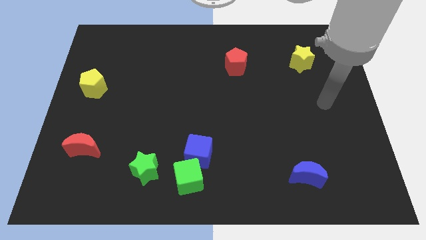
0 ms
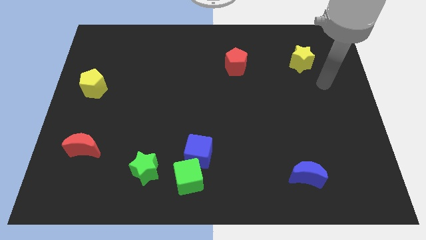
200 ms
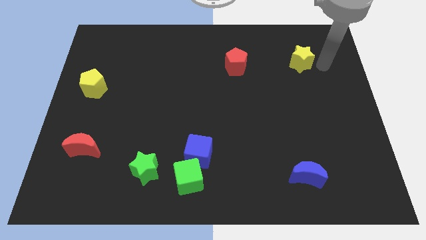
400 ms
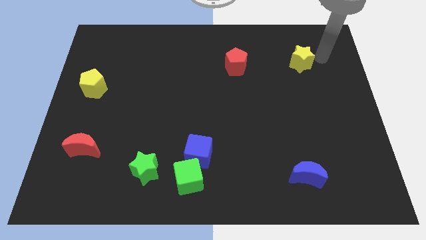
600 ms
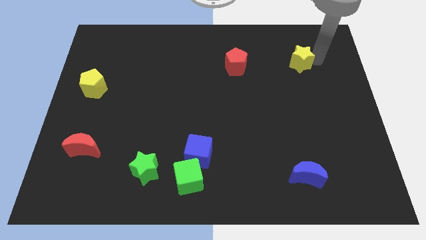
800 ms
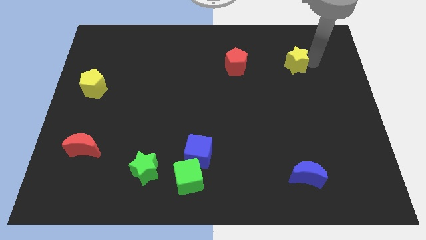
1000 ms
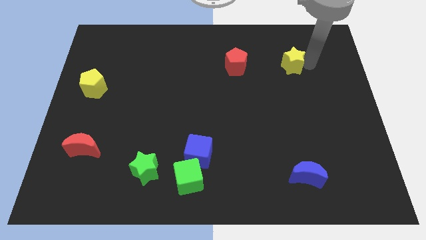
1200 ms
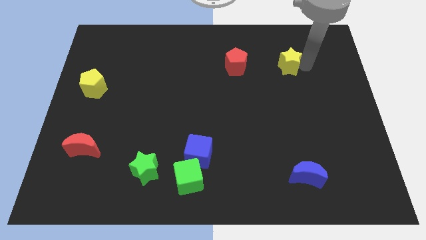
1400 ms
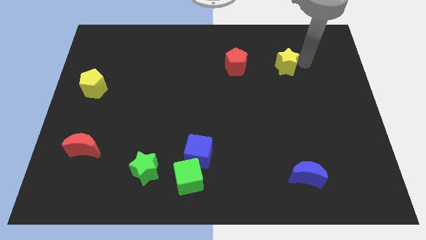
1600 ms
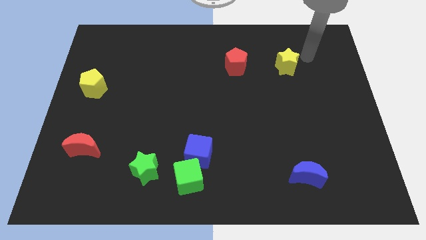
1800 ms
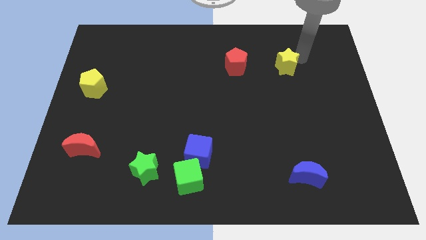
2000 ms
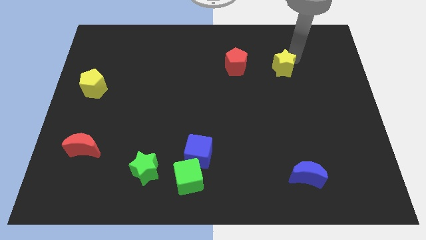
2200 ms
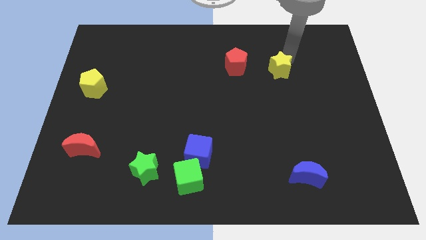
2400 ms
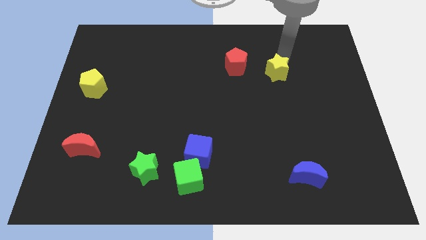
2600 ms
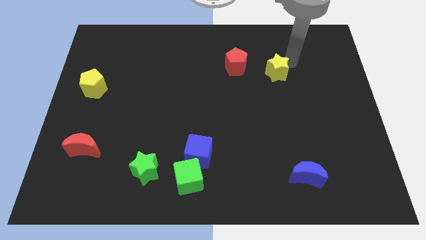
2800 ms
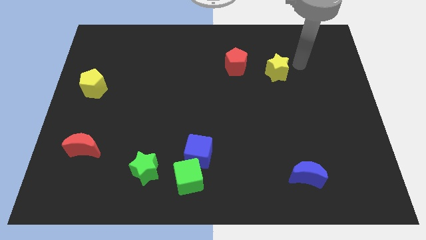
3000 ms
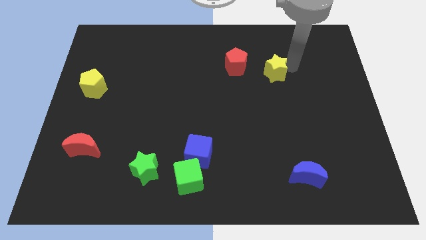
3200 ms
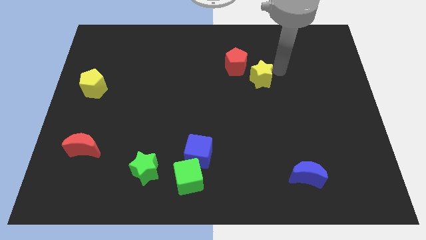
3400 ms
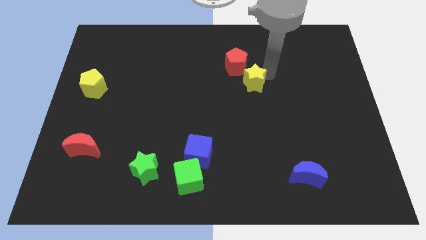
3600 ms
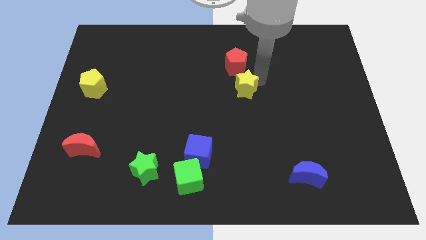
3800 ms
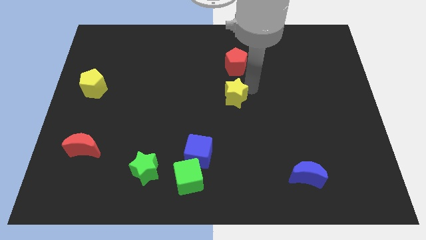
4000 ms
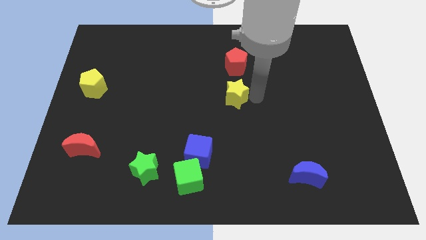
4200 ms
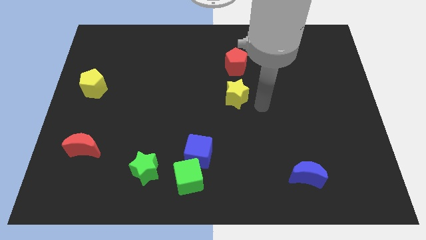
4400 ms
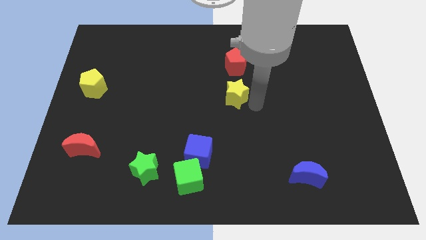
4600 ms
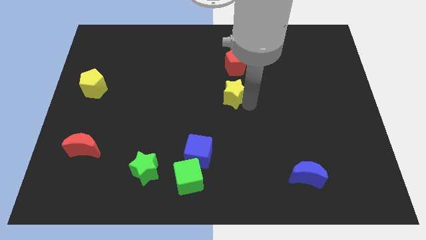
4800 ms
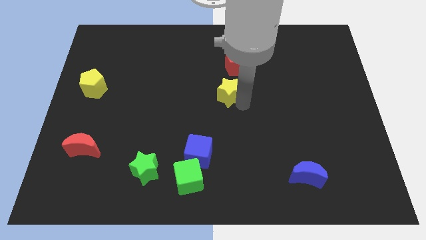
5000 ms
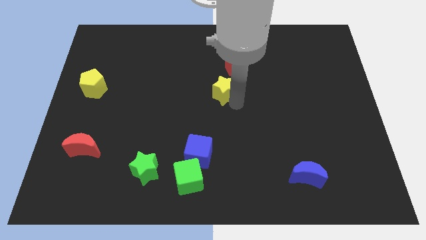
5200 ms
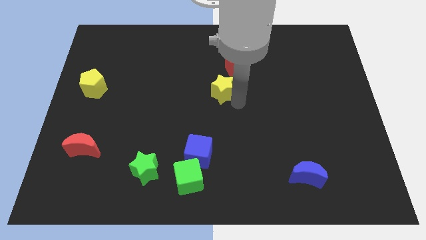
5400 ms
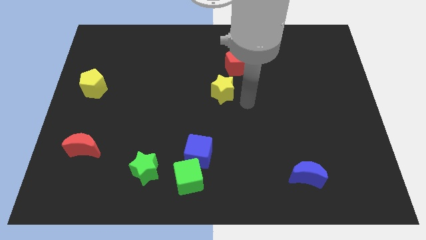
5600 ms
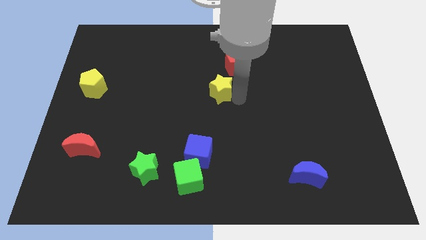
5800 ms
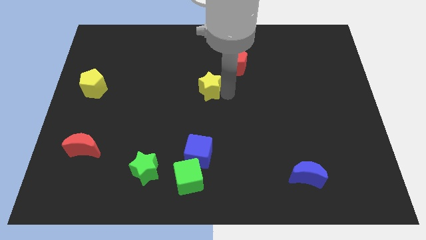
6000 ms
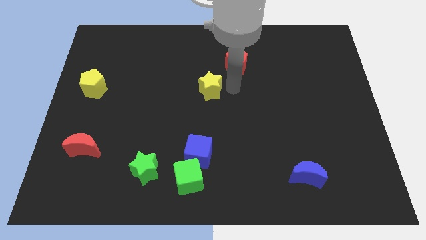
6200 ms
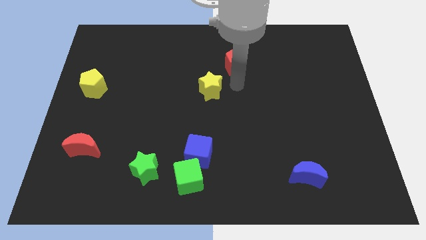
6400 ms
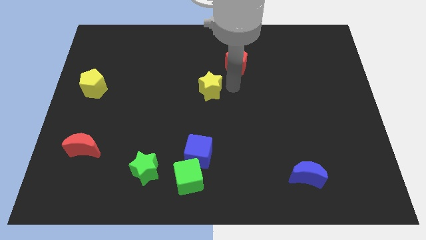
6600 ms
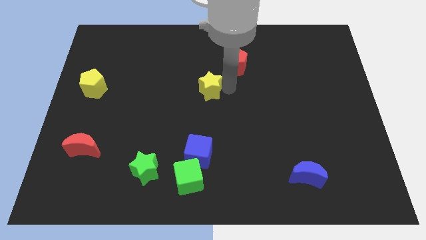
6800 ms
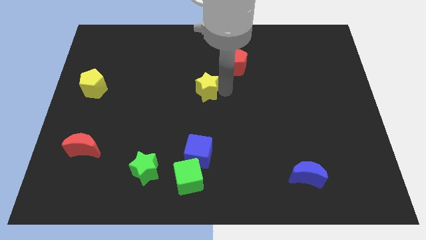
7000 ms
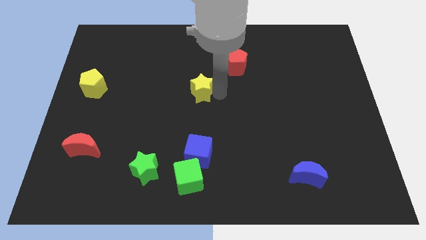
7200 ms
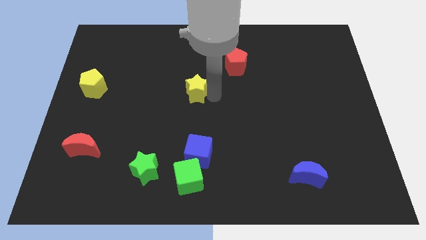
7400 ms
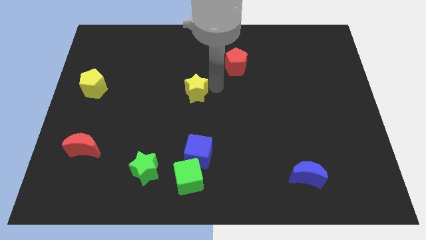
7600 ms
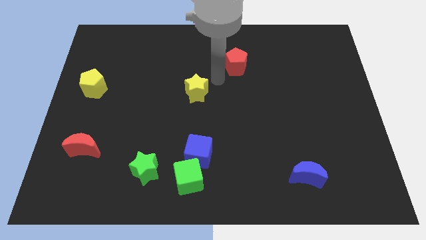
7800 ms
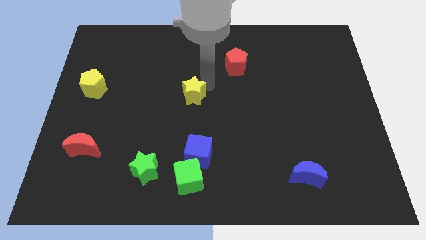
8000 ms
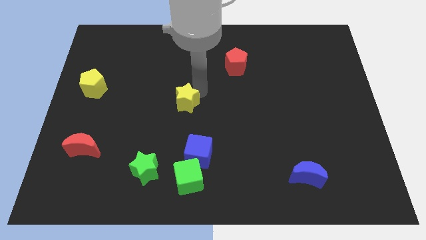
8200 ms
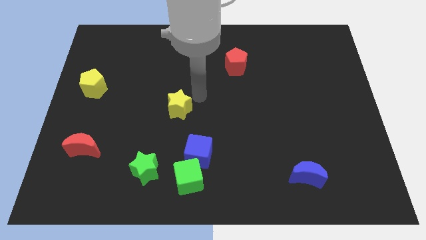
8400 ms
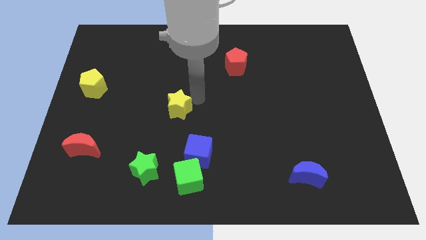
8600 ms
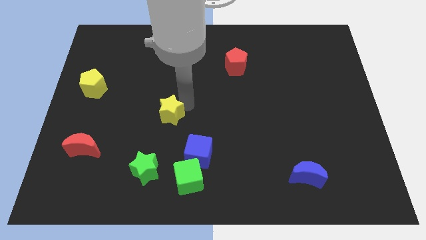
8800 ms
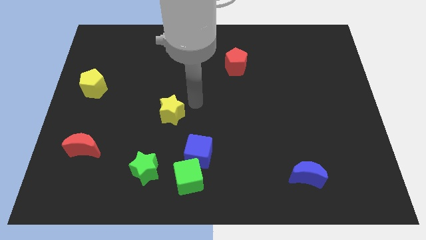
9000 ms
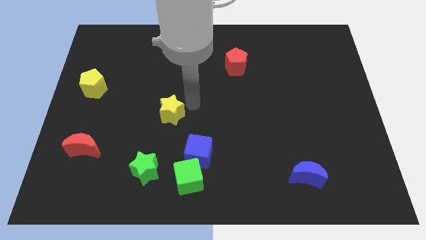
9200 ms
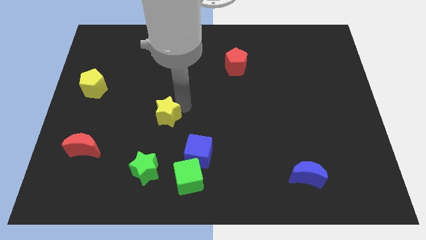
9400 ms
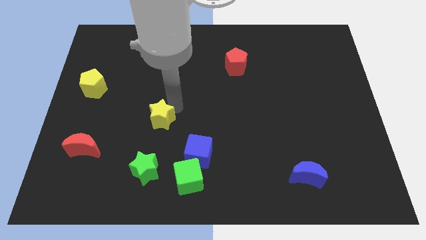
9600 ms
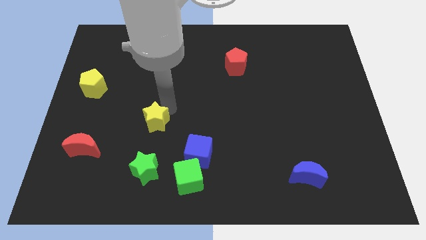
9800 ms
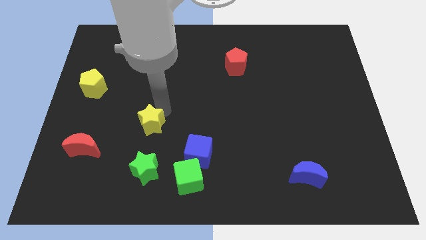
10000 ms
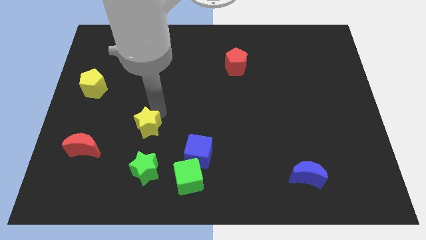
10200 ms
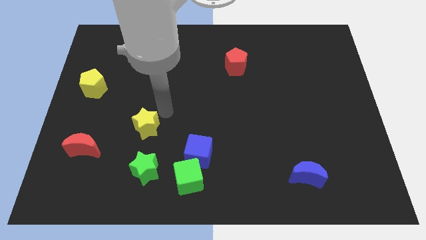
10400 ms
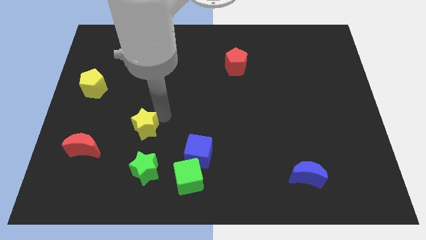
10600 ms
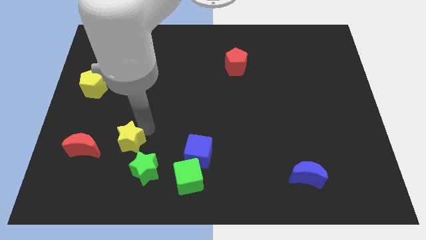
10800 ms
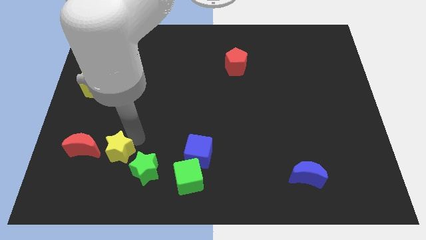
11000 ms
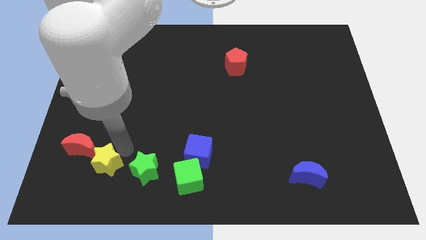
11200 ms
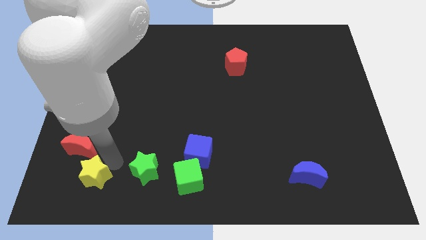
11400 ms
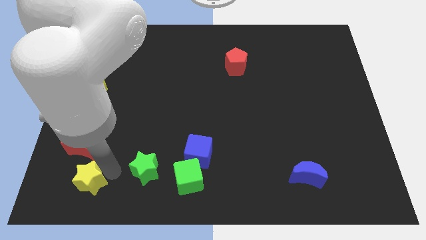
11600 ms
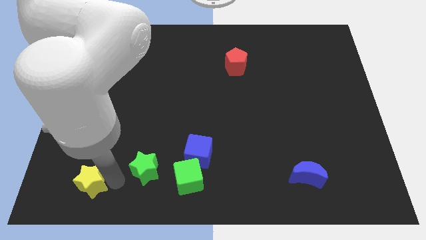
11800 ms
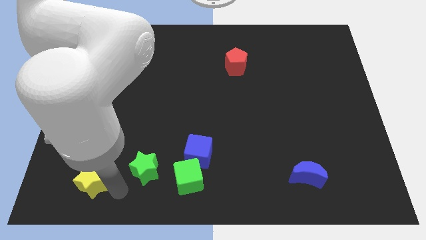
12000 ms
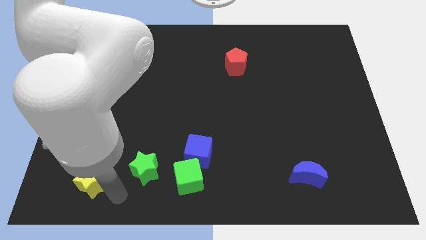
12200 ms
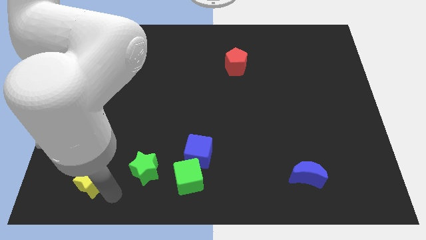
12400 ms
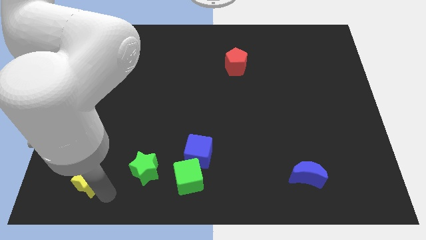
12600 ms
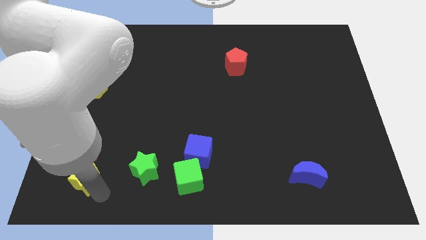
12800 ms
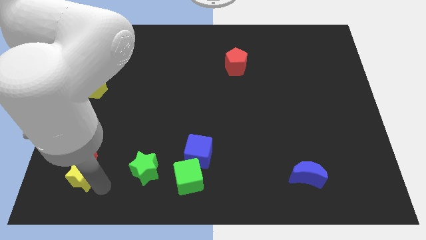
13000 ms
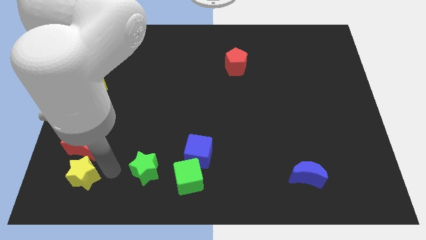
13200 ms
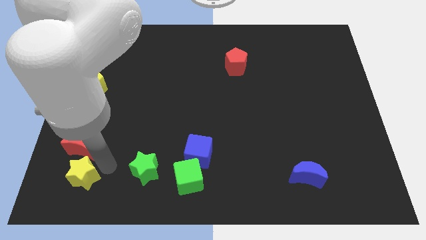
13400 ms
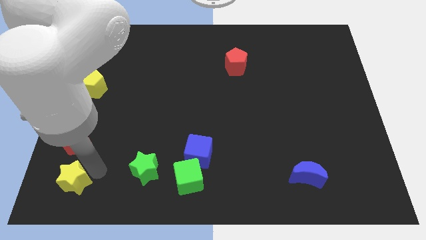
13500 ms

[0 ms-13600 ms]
push the yellow star to the bottom left
